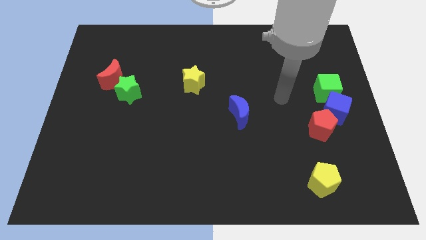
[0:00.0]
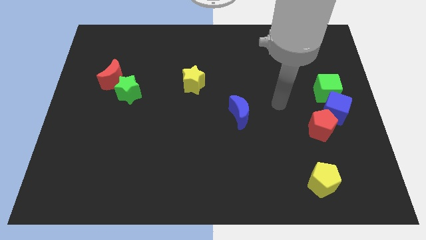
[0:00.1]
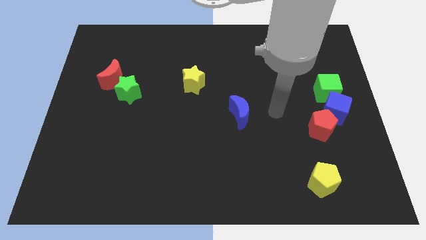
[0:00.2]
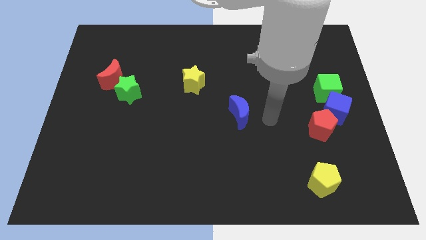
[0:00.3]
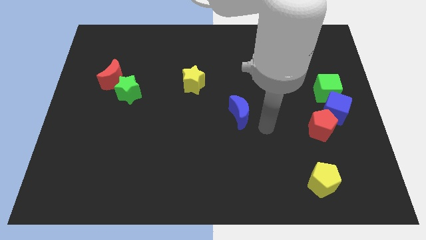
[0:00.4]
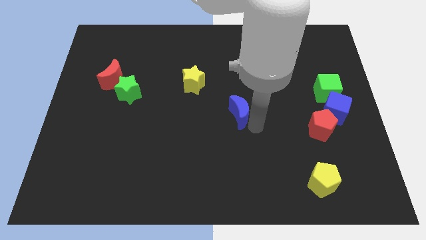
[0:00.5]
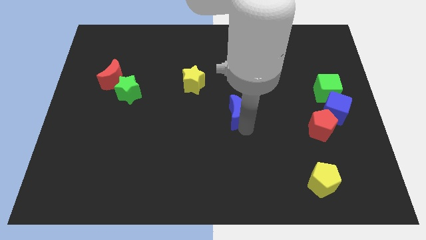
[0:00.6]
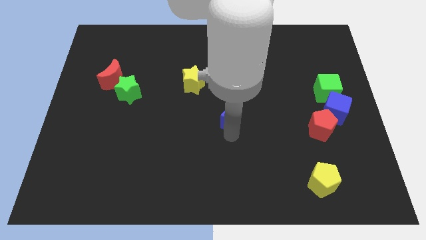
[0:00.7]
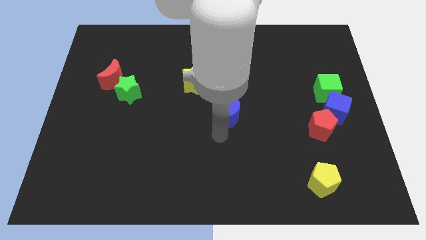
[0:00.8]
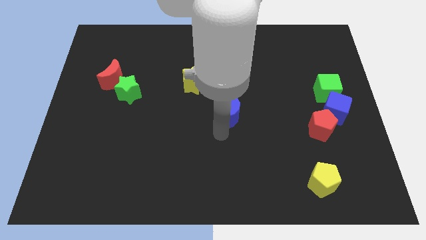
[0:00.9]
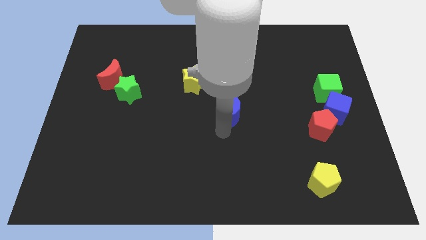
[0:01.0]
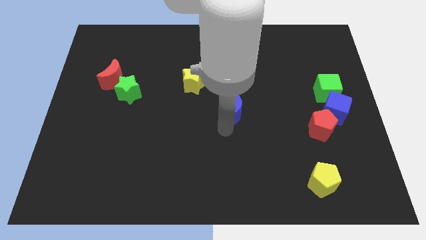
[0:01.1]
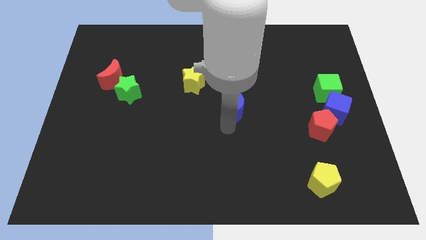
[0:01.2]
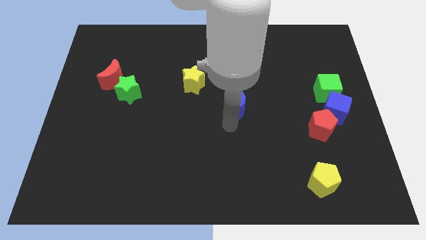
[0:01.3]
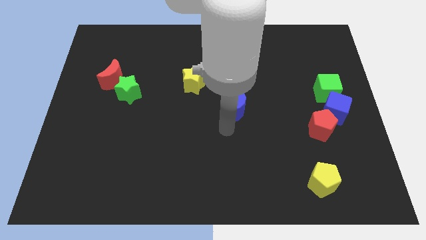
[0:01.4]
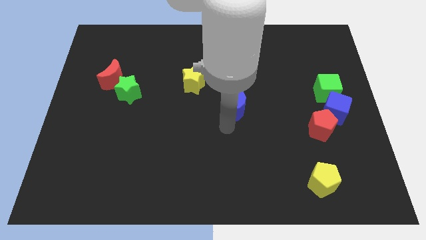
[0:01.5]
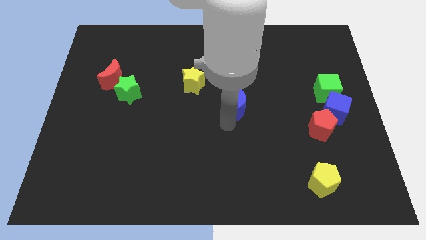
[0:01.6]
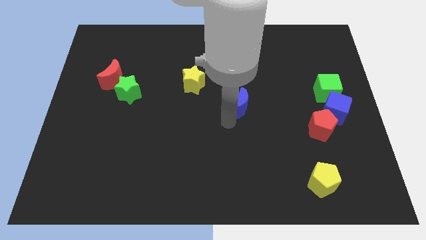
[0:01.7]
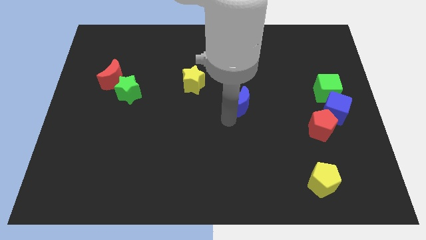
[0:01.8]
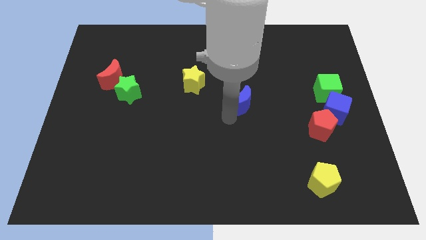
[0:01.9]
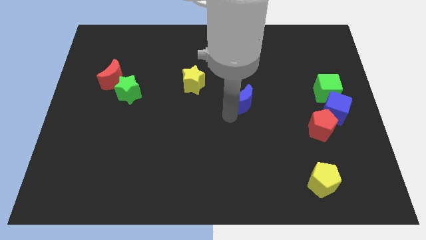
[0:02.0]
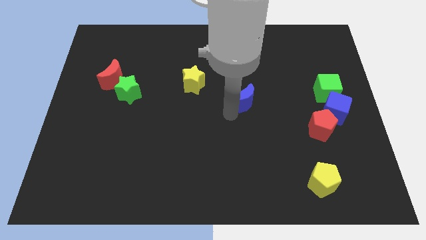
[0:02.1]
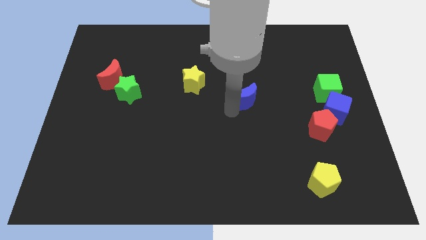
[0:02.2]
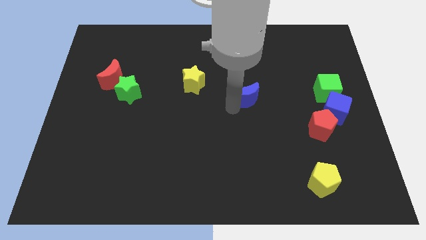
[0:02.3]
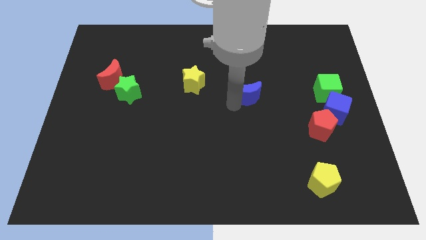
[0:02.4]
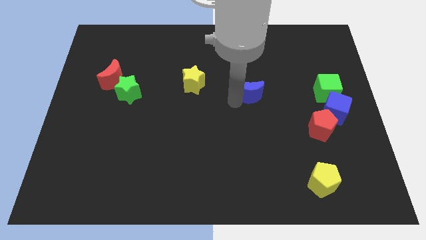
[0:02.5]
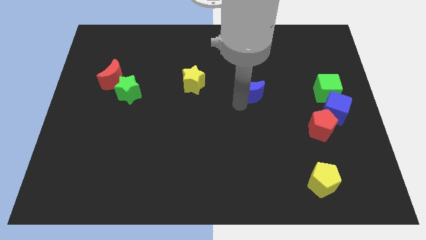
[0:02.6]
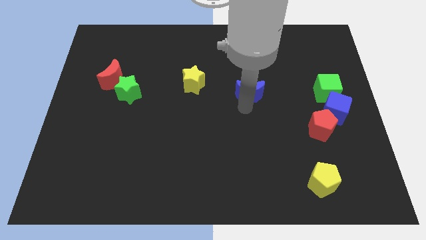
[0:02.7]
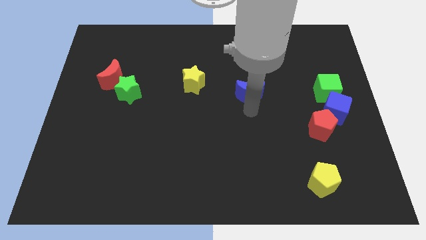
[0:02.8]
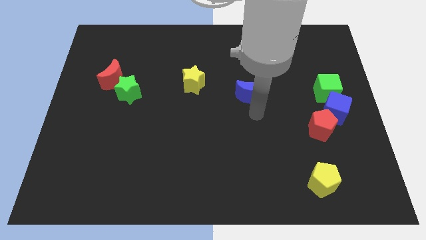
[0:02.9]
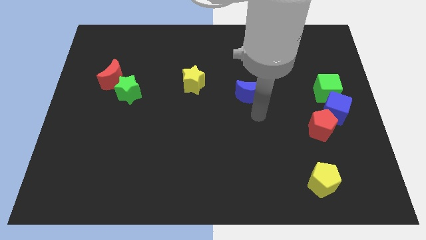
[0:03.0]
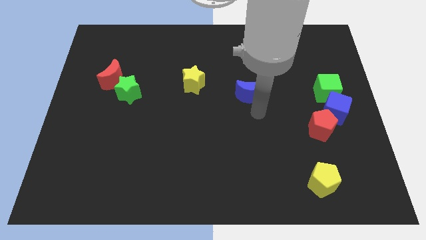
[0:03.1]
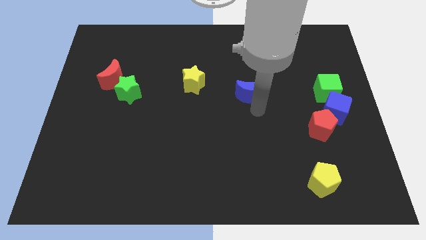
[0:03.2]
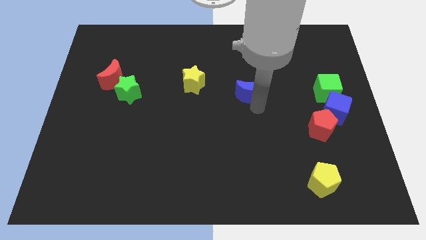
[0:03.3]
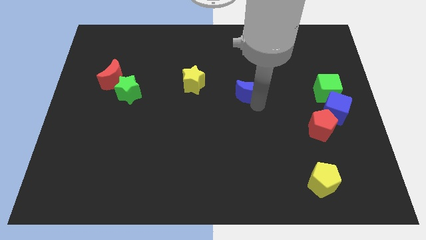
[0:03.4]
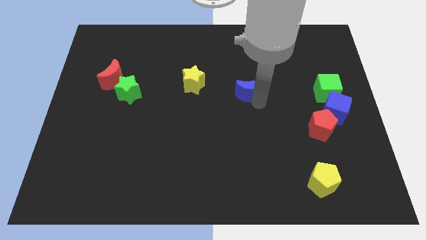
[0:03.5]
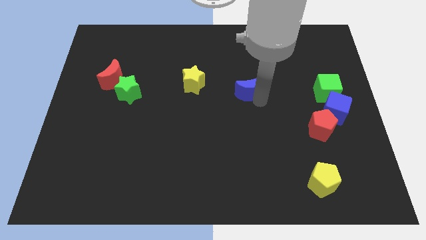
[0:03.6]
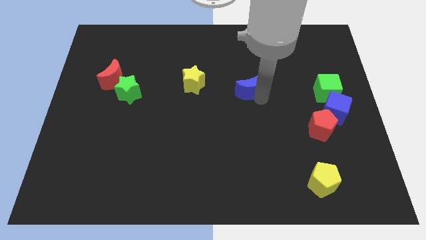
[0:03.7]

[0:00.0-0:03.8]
slide the blue moon a little upwards

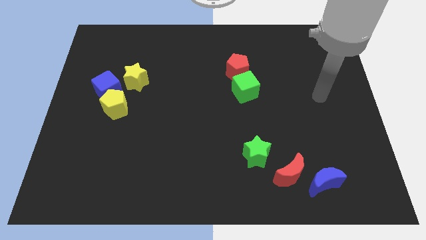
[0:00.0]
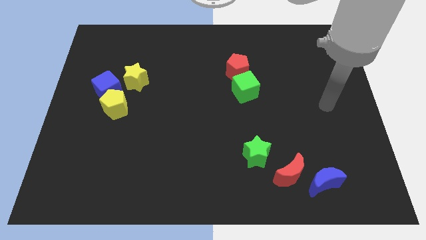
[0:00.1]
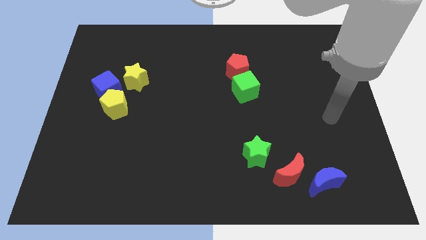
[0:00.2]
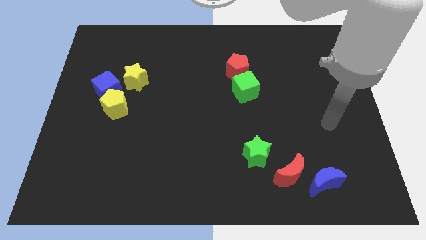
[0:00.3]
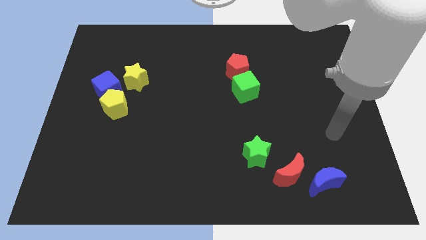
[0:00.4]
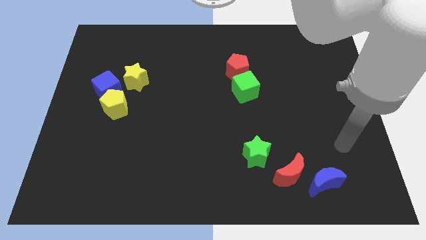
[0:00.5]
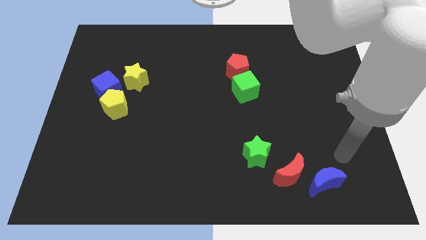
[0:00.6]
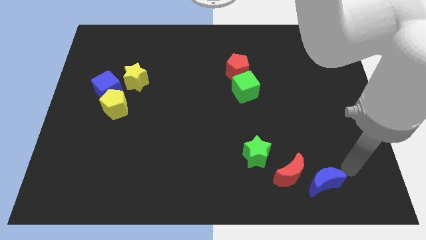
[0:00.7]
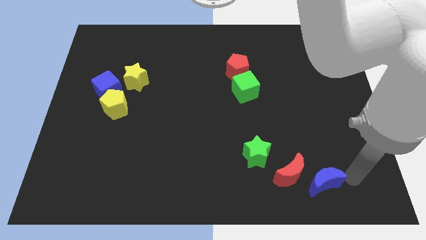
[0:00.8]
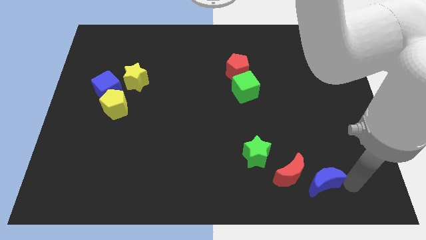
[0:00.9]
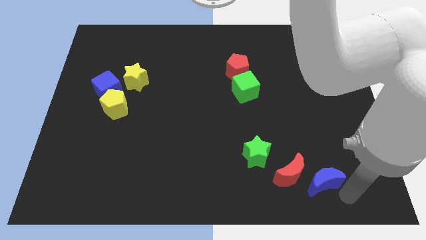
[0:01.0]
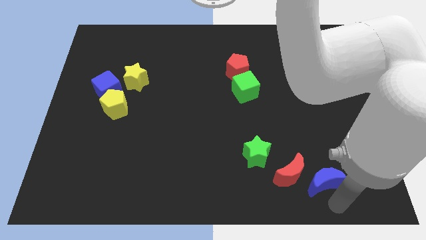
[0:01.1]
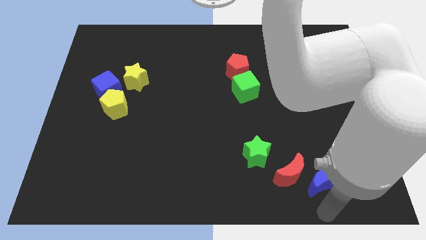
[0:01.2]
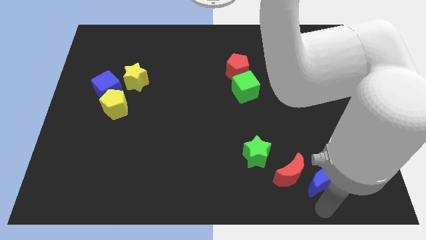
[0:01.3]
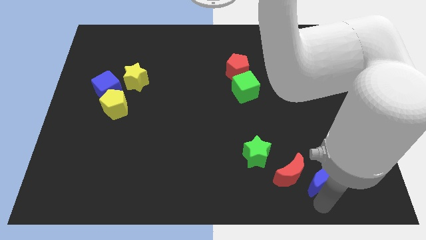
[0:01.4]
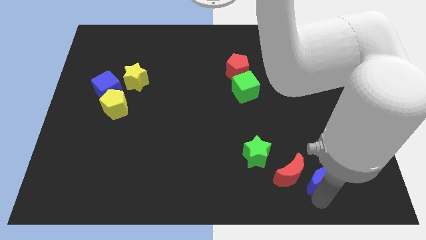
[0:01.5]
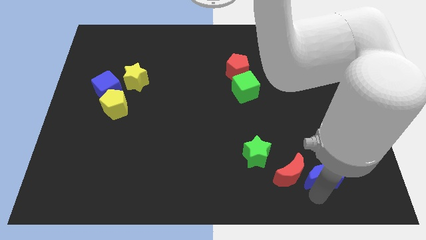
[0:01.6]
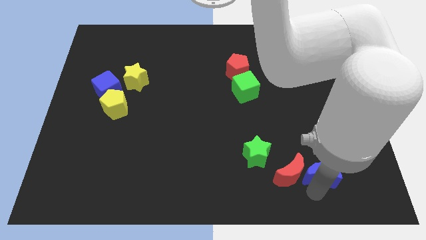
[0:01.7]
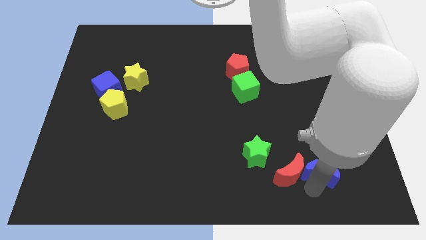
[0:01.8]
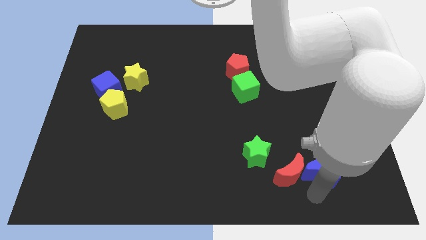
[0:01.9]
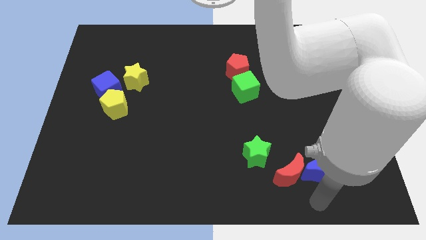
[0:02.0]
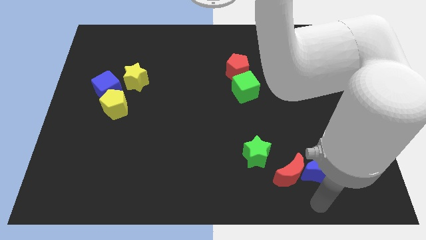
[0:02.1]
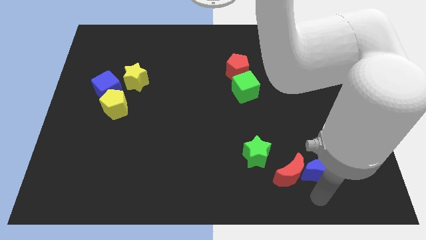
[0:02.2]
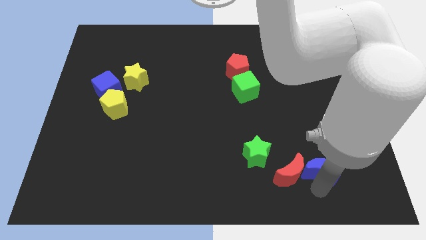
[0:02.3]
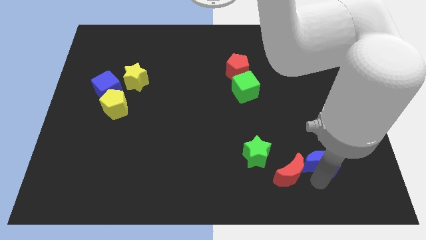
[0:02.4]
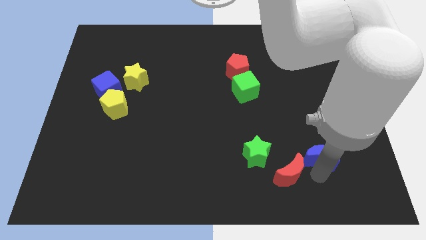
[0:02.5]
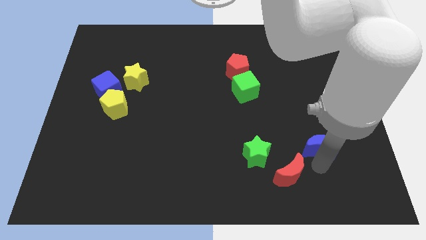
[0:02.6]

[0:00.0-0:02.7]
slide the blue moon upwards a little

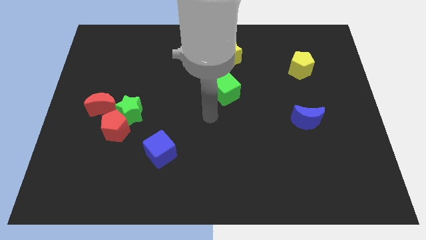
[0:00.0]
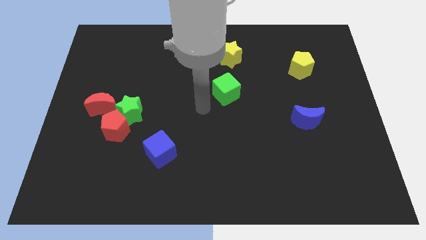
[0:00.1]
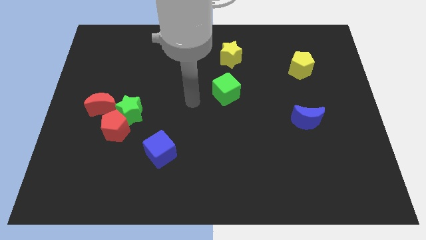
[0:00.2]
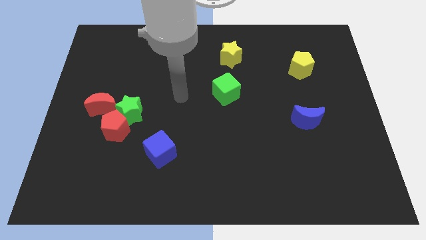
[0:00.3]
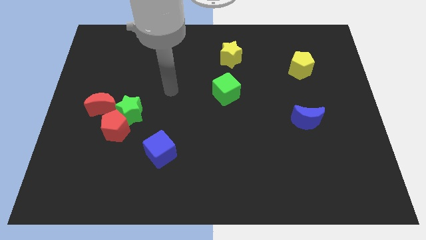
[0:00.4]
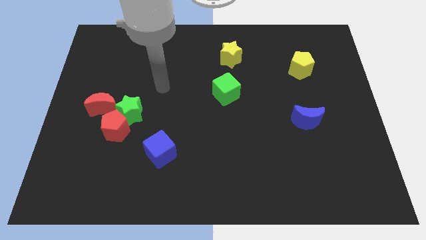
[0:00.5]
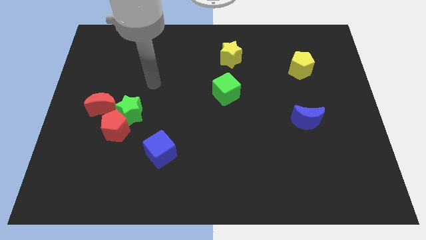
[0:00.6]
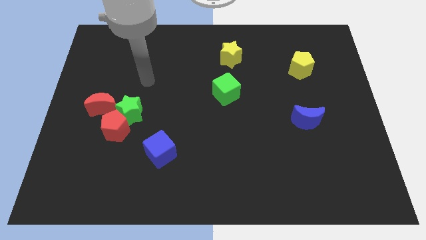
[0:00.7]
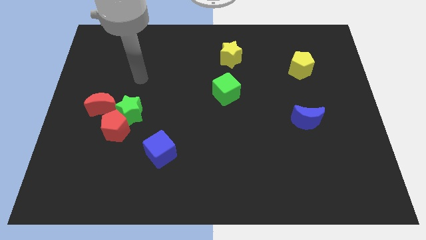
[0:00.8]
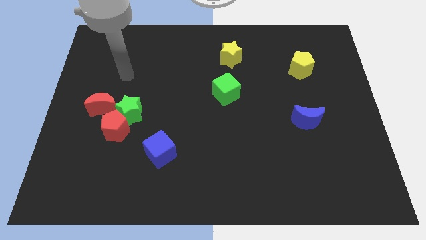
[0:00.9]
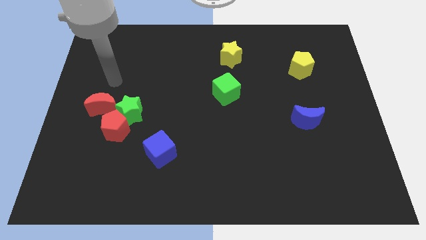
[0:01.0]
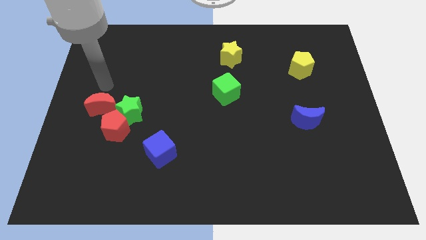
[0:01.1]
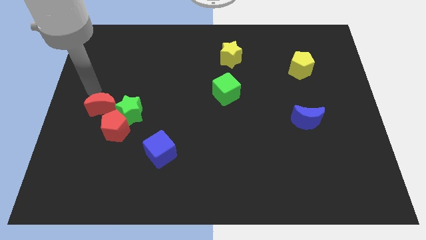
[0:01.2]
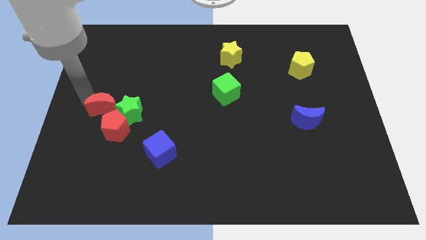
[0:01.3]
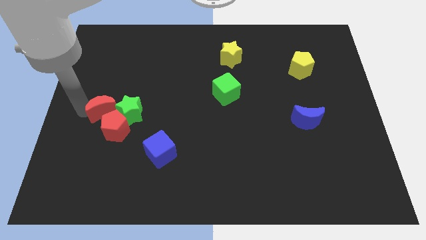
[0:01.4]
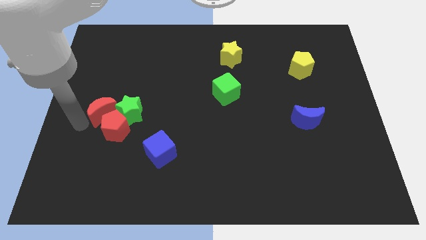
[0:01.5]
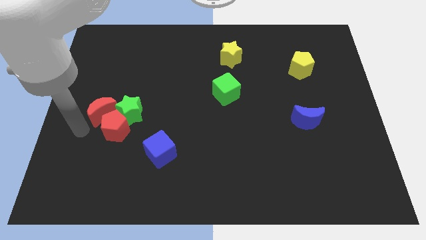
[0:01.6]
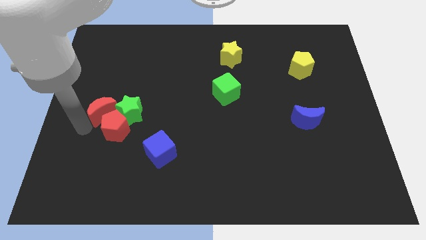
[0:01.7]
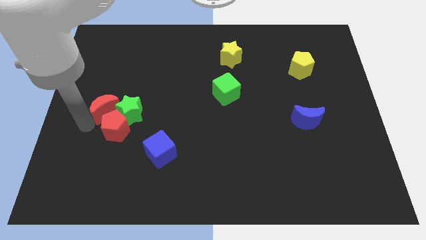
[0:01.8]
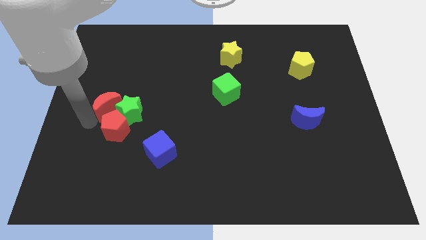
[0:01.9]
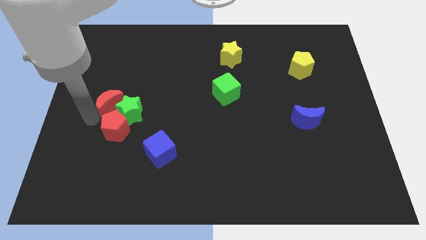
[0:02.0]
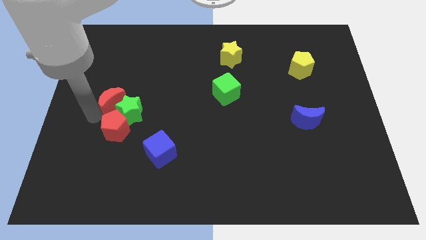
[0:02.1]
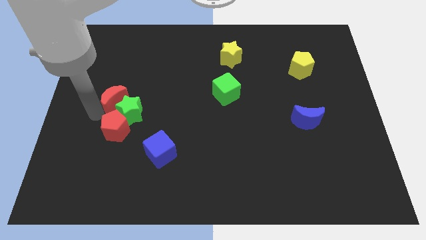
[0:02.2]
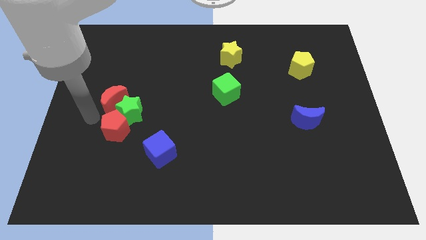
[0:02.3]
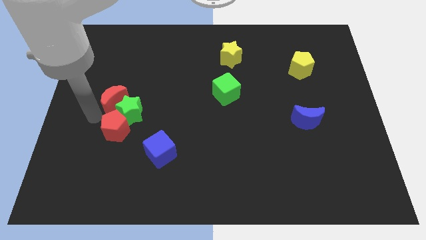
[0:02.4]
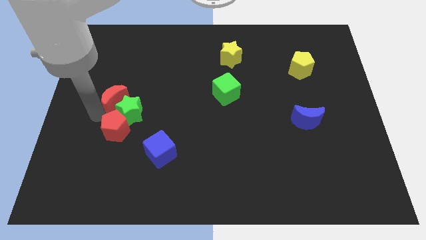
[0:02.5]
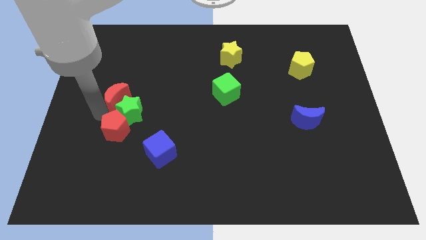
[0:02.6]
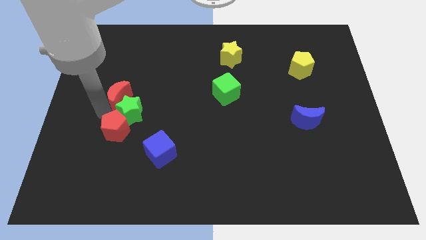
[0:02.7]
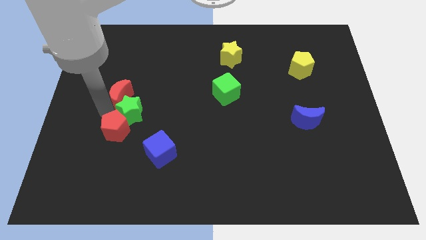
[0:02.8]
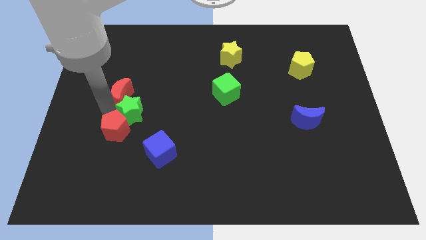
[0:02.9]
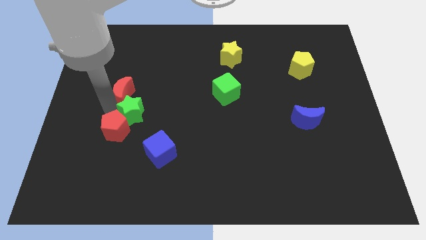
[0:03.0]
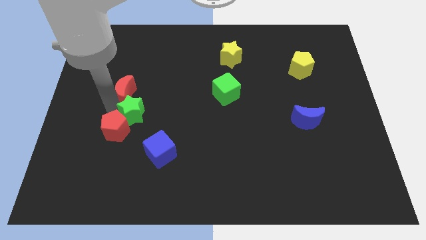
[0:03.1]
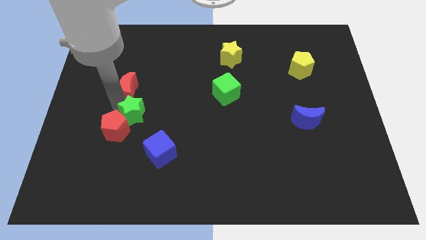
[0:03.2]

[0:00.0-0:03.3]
slightly slide the red moon diagonally up and right
